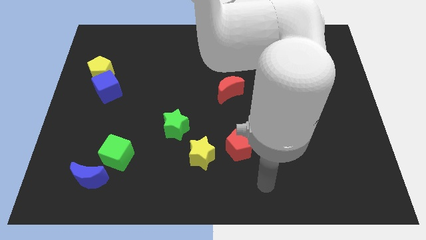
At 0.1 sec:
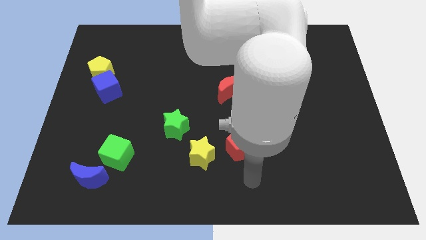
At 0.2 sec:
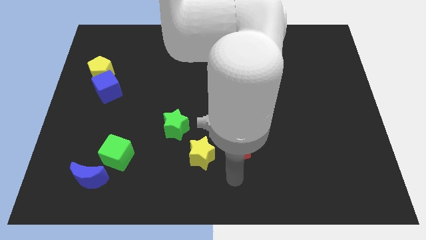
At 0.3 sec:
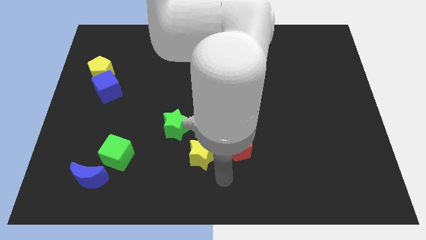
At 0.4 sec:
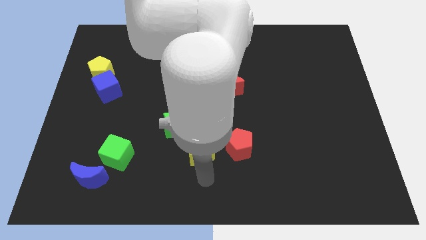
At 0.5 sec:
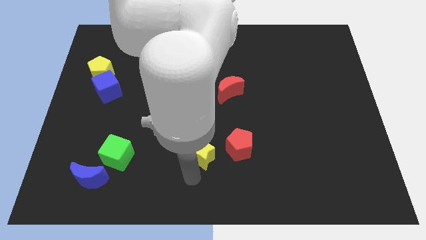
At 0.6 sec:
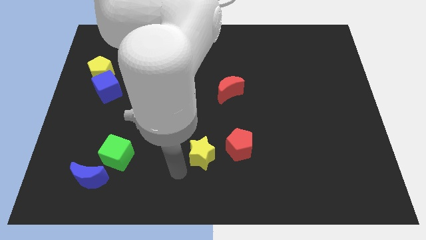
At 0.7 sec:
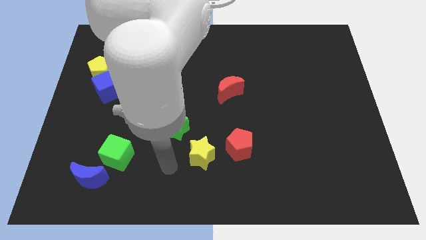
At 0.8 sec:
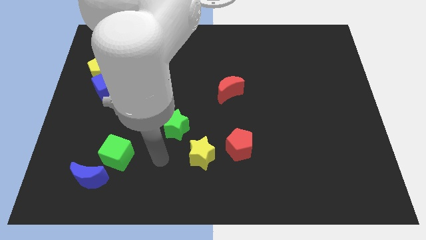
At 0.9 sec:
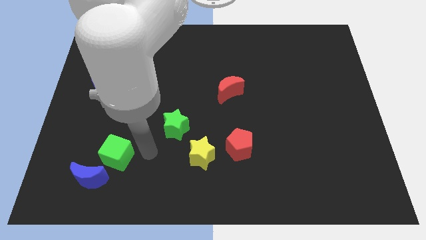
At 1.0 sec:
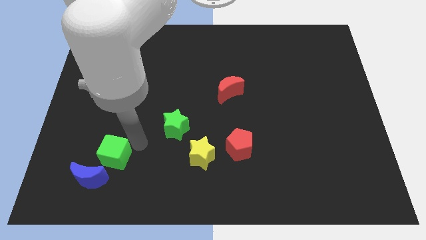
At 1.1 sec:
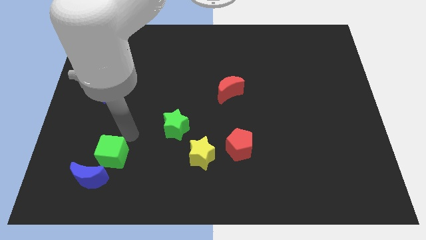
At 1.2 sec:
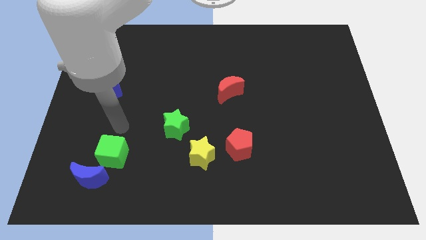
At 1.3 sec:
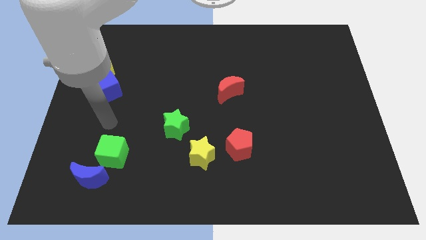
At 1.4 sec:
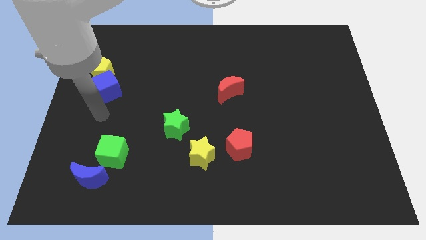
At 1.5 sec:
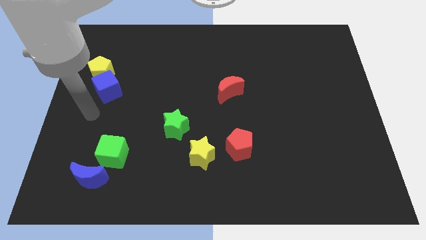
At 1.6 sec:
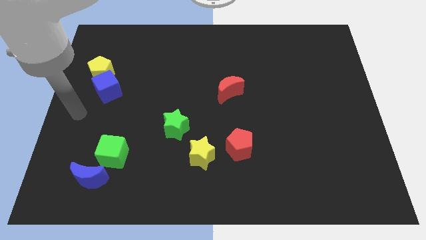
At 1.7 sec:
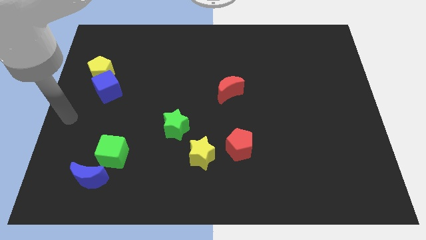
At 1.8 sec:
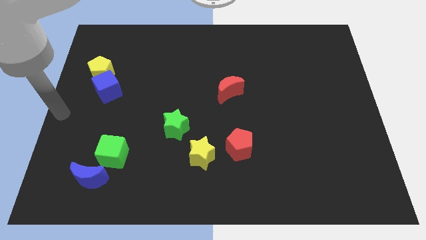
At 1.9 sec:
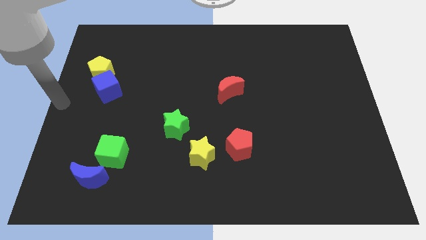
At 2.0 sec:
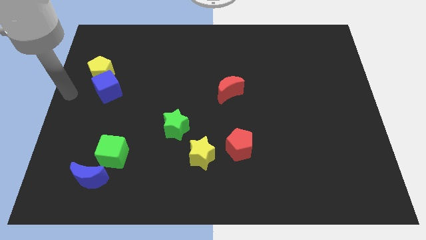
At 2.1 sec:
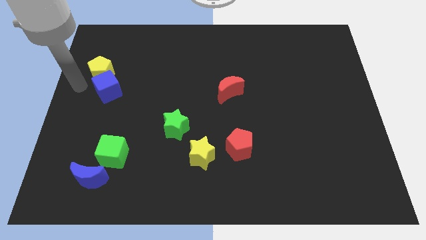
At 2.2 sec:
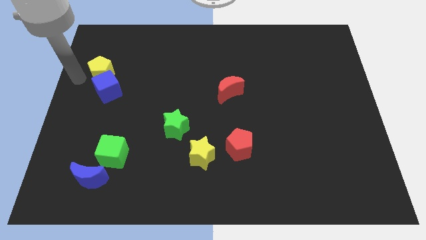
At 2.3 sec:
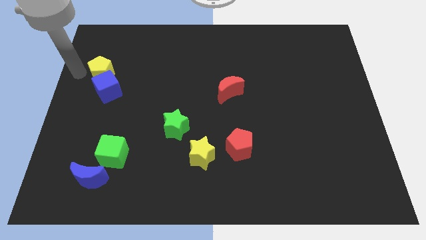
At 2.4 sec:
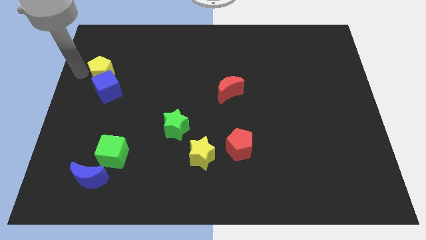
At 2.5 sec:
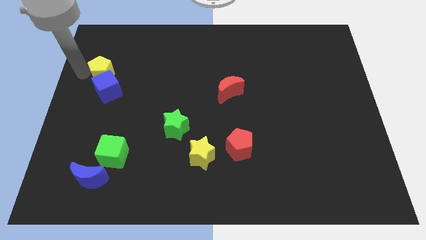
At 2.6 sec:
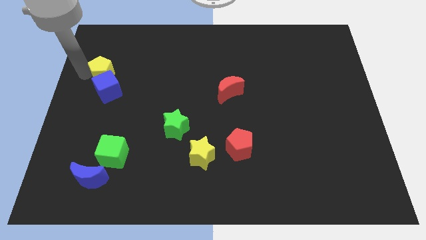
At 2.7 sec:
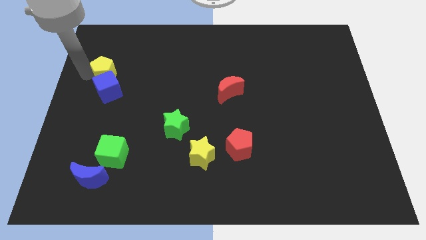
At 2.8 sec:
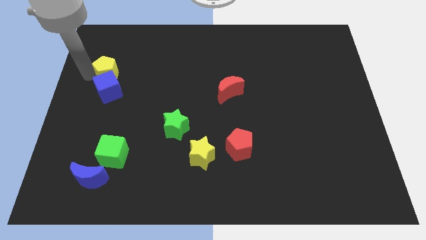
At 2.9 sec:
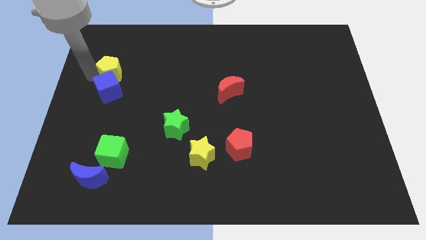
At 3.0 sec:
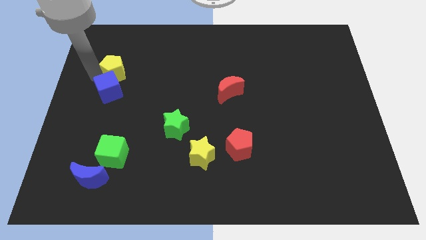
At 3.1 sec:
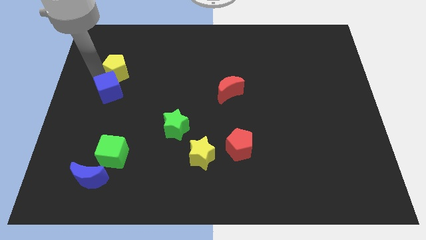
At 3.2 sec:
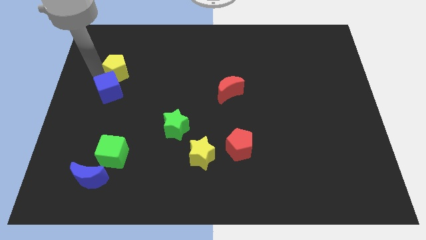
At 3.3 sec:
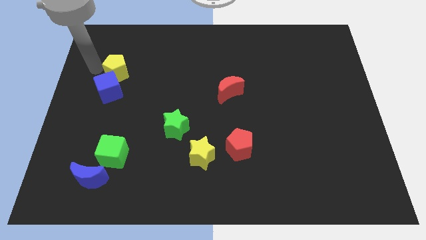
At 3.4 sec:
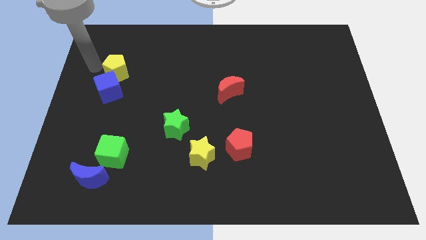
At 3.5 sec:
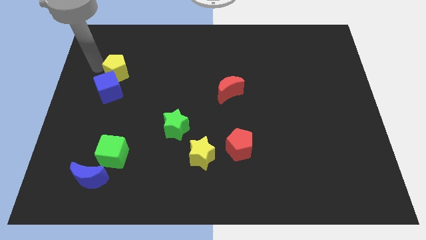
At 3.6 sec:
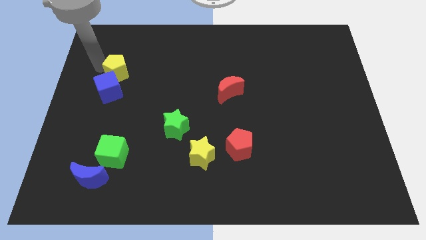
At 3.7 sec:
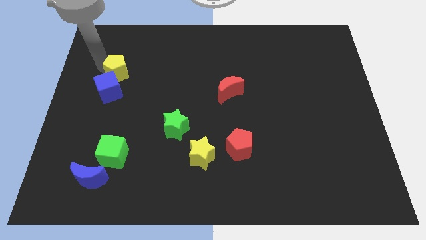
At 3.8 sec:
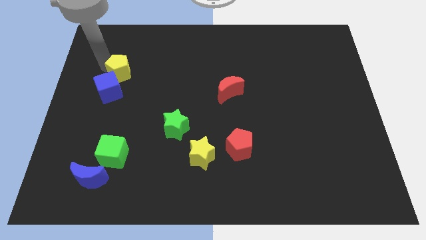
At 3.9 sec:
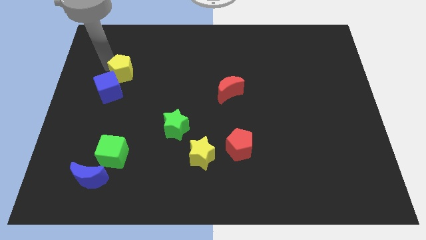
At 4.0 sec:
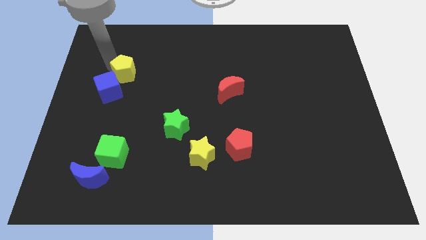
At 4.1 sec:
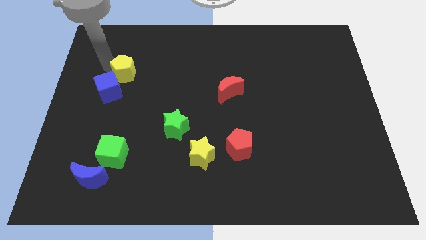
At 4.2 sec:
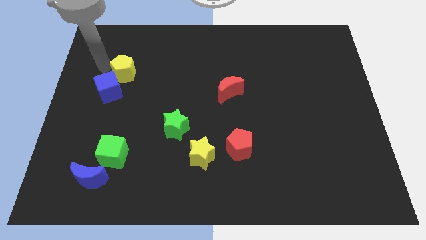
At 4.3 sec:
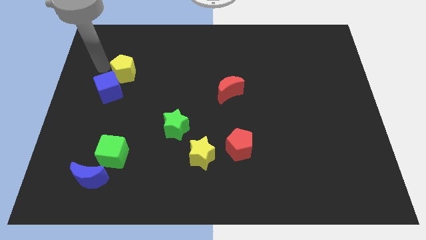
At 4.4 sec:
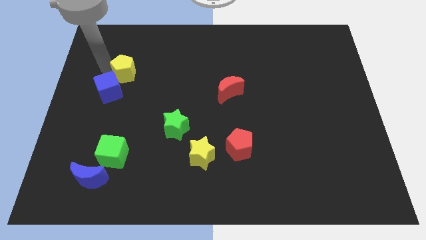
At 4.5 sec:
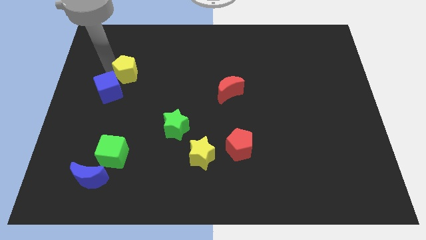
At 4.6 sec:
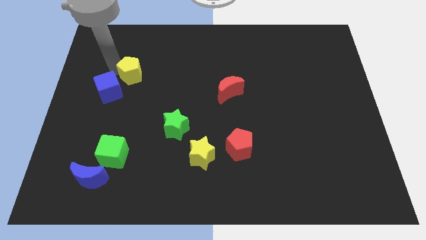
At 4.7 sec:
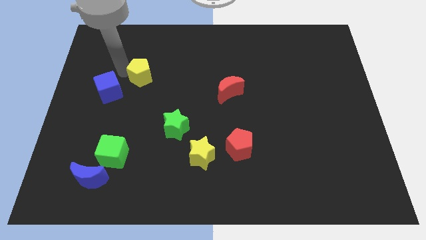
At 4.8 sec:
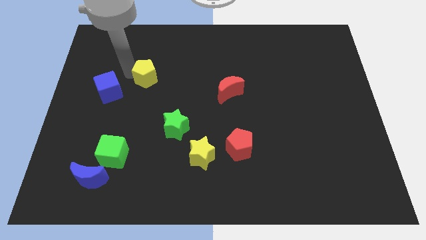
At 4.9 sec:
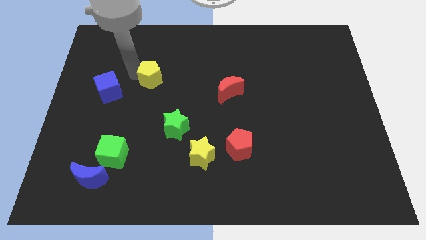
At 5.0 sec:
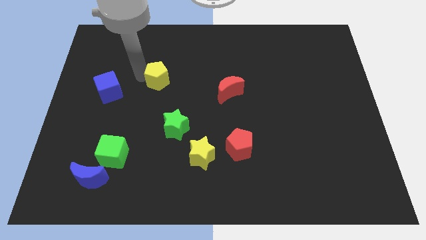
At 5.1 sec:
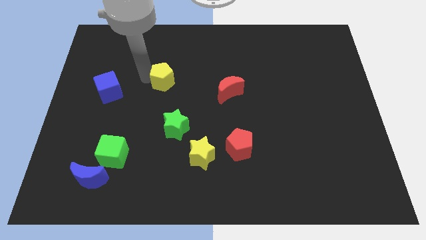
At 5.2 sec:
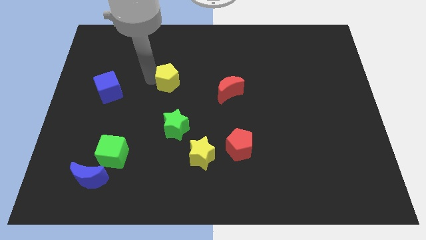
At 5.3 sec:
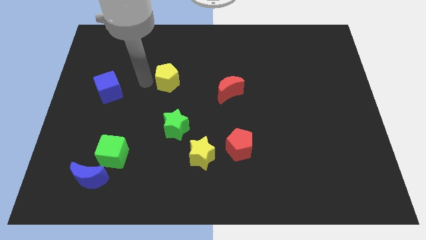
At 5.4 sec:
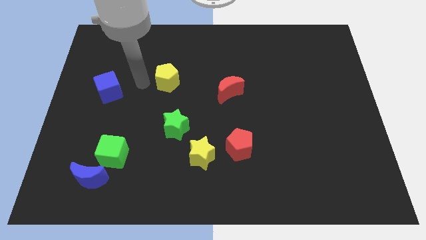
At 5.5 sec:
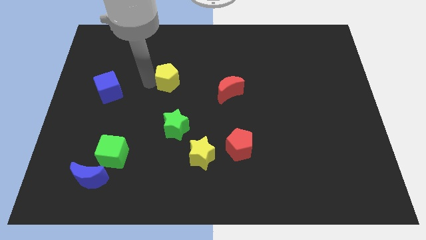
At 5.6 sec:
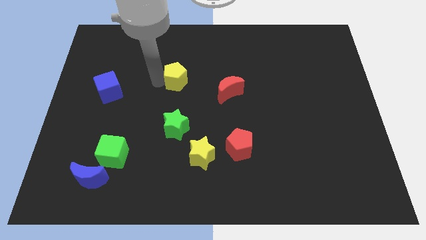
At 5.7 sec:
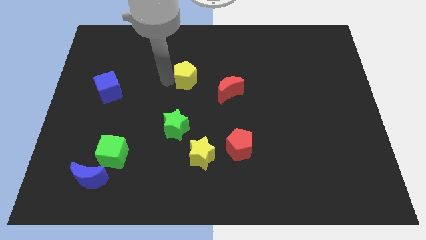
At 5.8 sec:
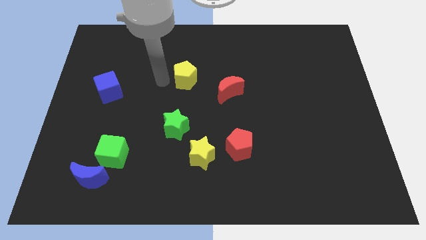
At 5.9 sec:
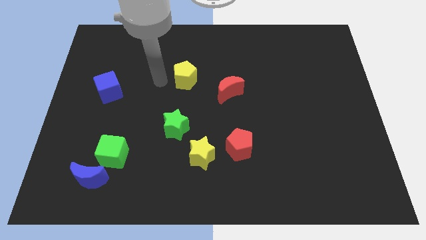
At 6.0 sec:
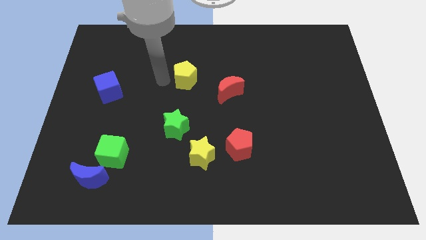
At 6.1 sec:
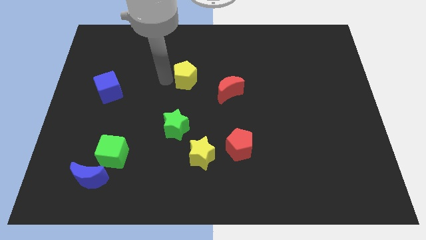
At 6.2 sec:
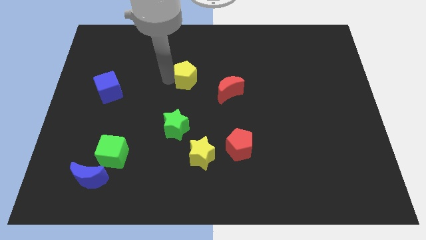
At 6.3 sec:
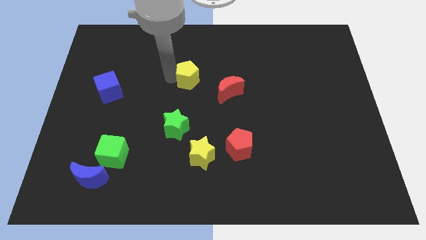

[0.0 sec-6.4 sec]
put the yellow pentagon to the top left side of the red moon
